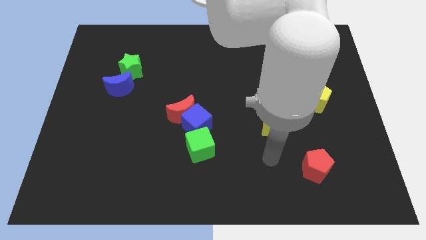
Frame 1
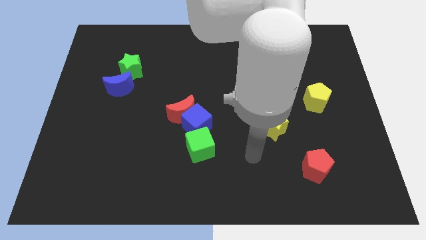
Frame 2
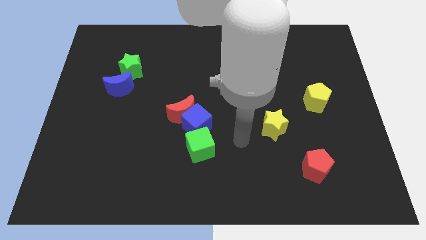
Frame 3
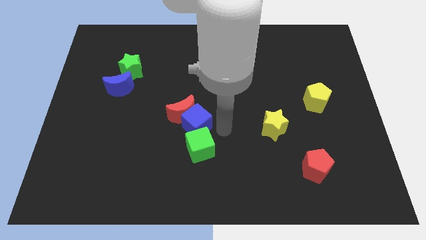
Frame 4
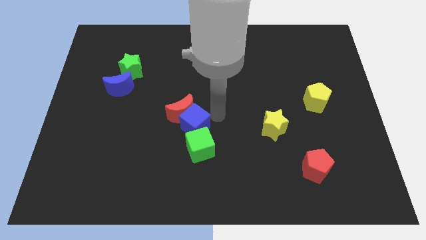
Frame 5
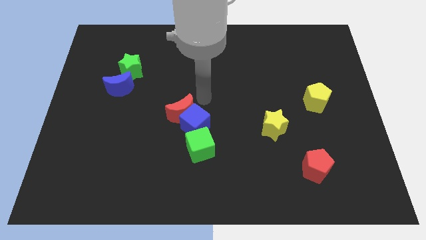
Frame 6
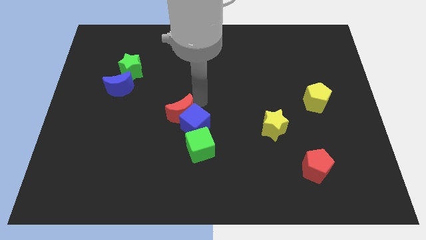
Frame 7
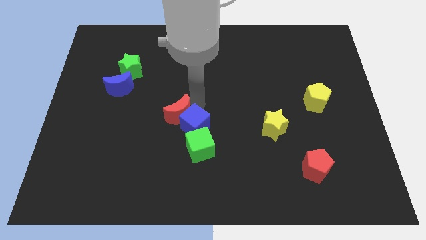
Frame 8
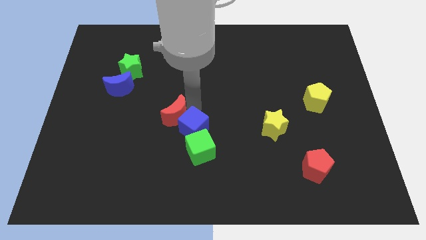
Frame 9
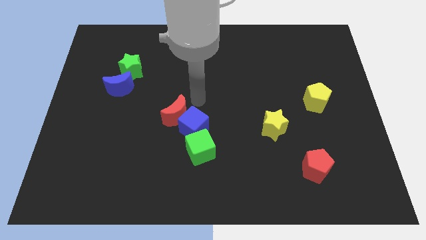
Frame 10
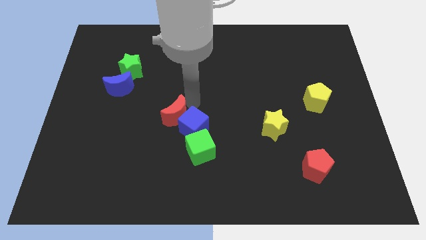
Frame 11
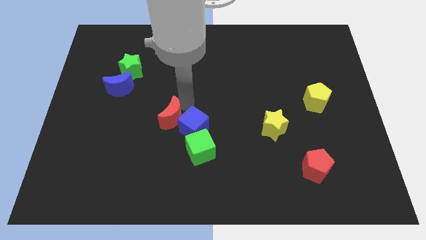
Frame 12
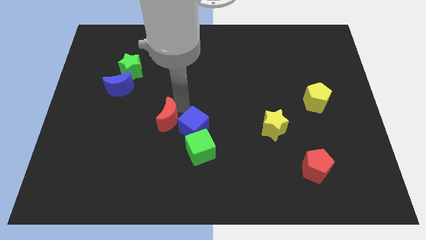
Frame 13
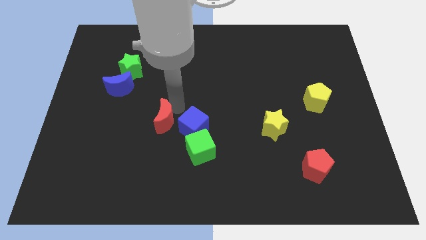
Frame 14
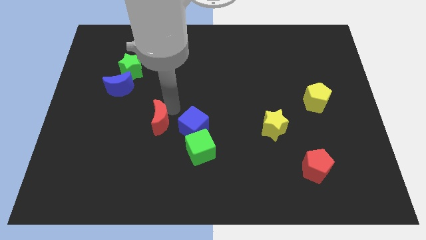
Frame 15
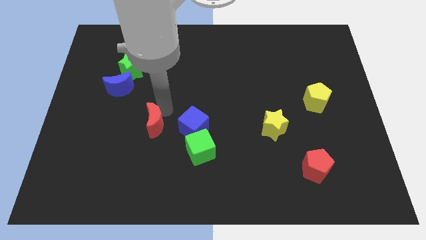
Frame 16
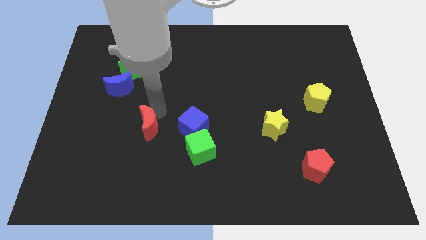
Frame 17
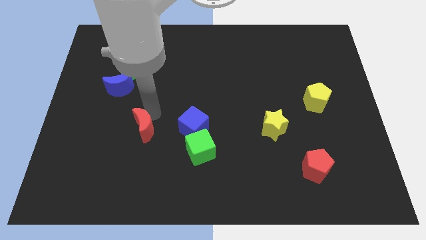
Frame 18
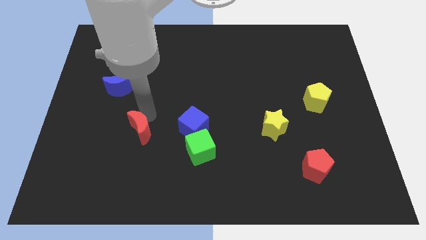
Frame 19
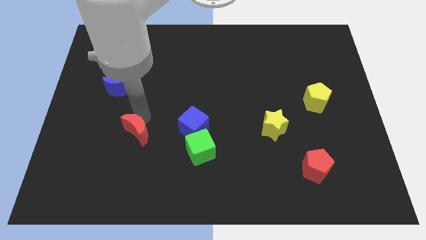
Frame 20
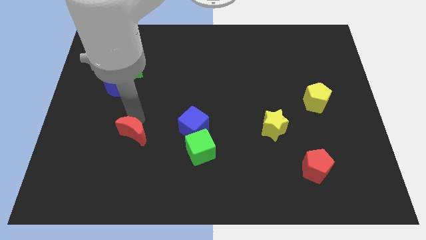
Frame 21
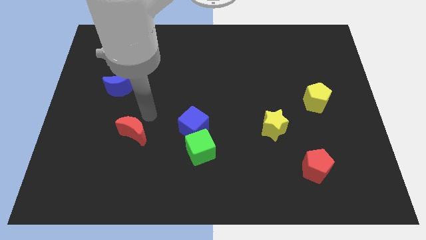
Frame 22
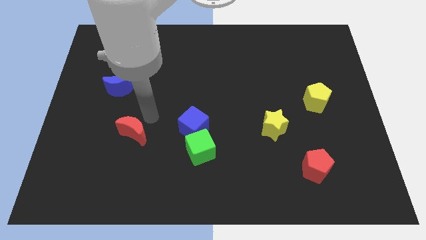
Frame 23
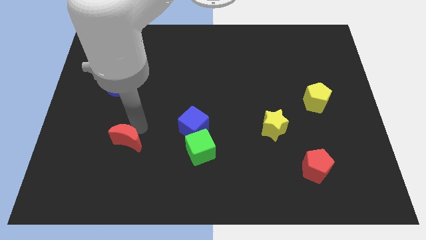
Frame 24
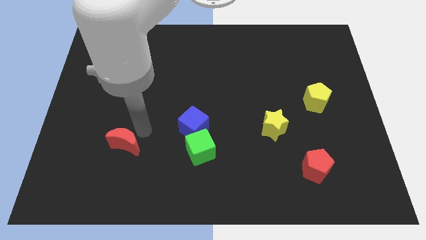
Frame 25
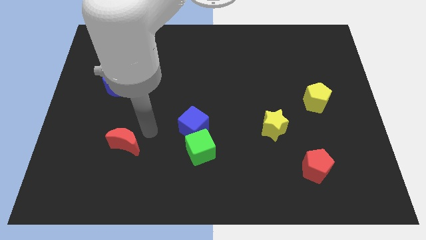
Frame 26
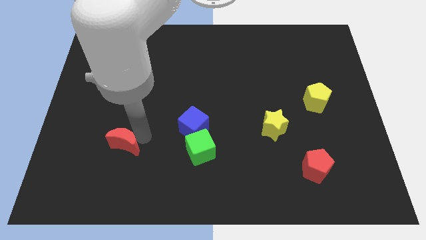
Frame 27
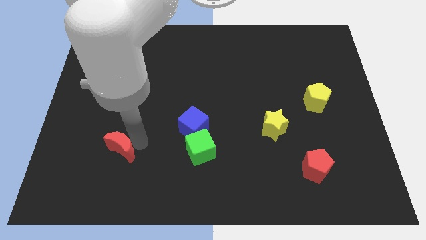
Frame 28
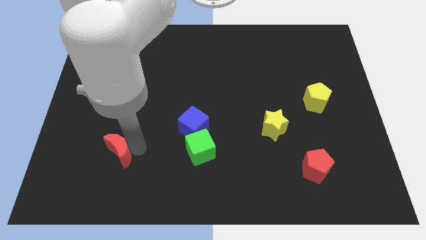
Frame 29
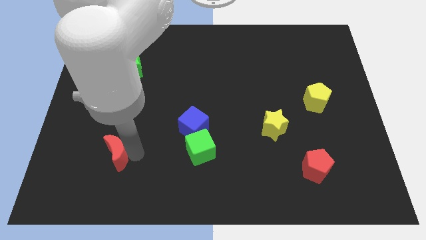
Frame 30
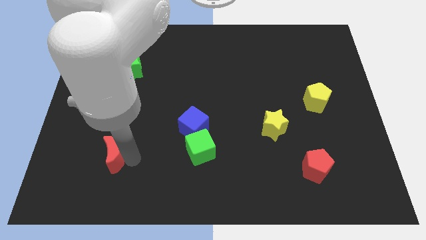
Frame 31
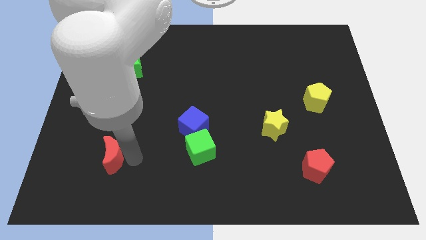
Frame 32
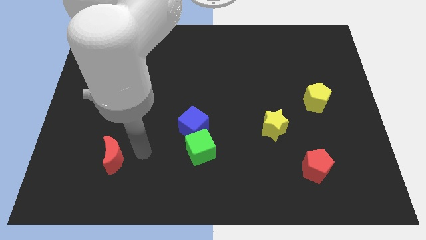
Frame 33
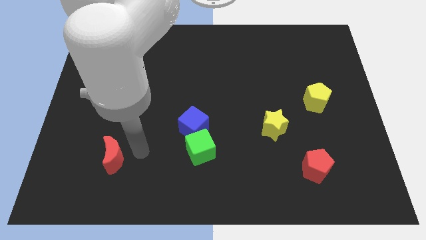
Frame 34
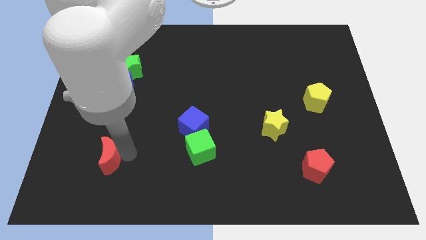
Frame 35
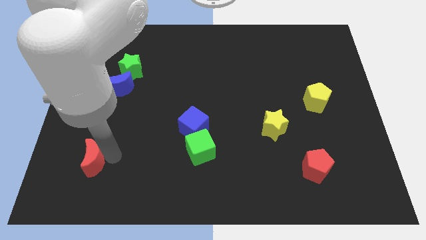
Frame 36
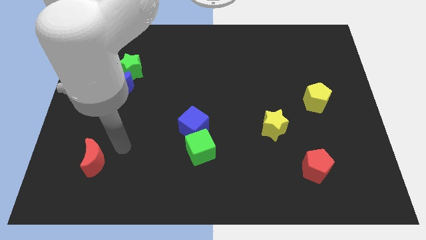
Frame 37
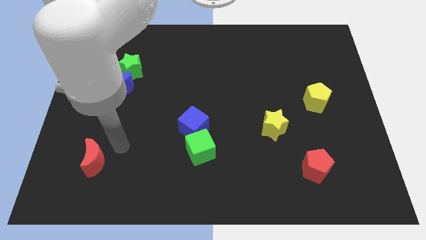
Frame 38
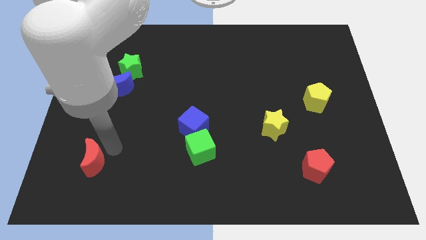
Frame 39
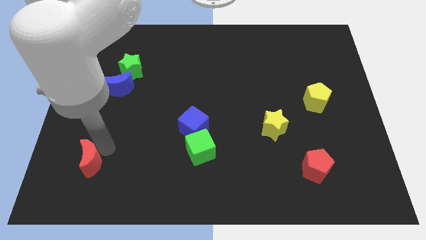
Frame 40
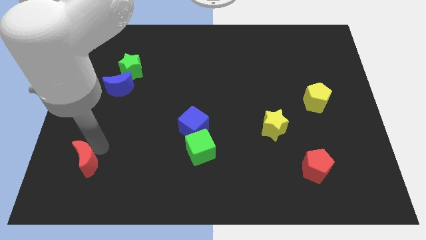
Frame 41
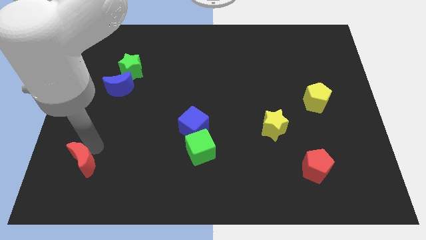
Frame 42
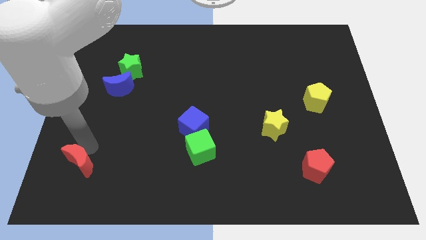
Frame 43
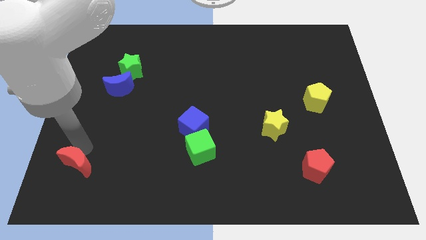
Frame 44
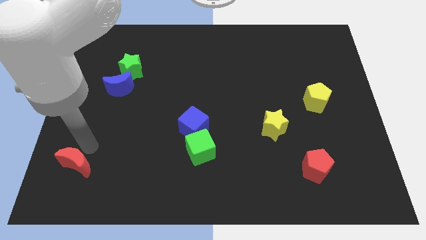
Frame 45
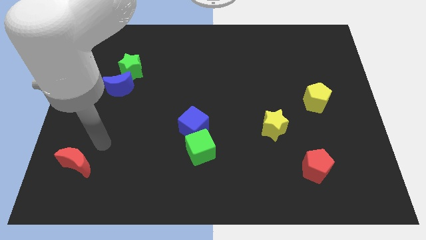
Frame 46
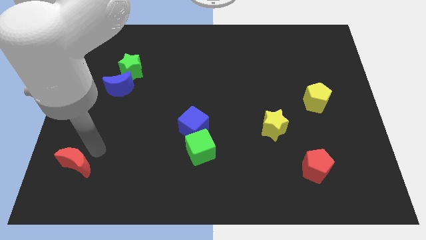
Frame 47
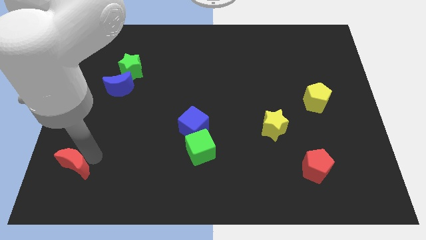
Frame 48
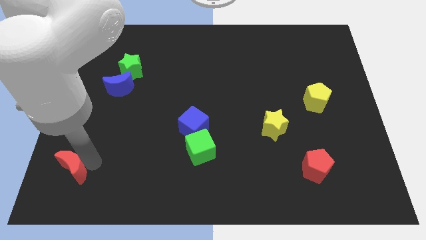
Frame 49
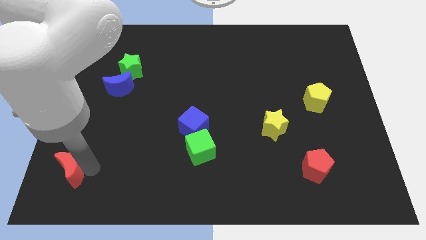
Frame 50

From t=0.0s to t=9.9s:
push the red moon to the bottom left

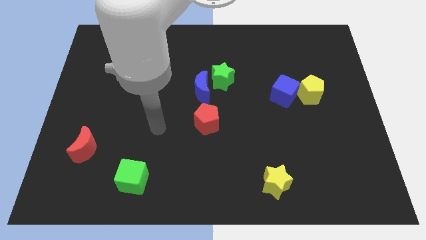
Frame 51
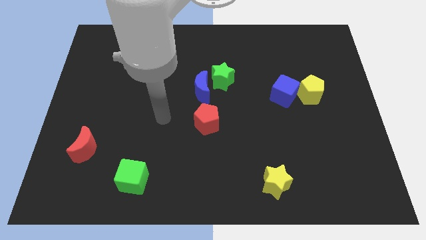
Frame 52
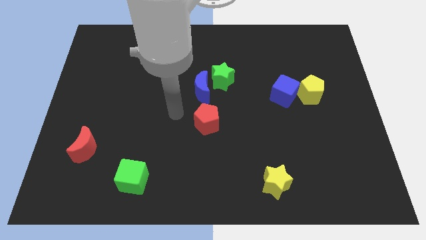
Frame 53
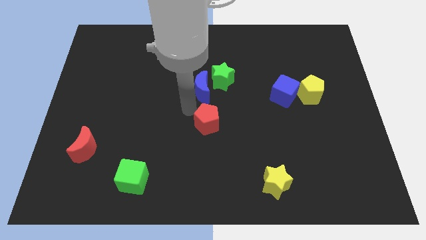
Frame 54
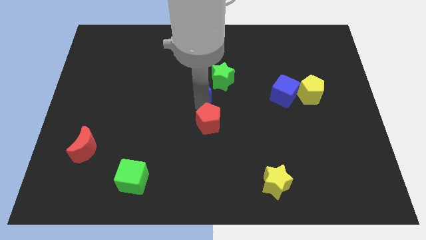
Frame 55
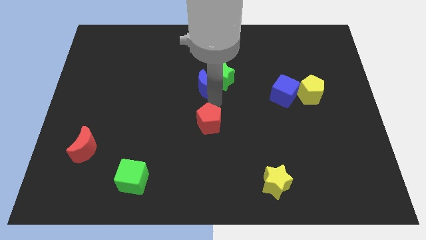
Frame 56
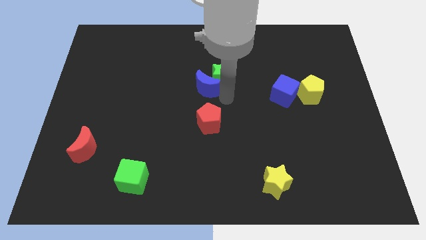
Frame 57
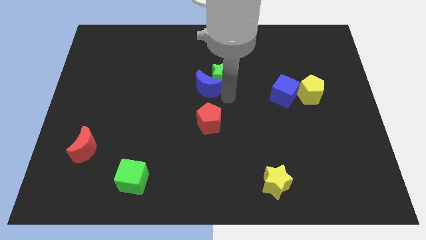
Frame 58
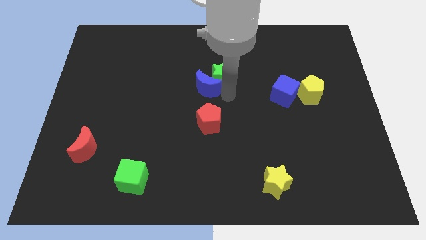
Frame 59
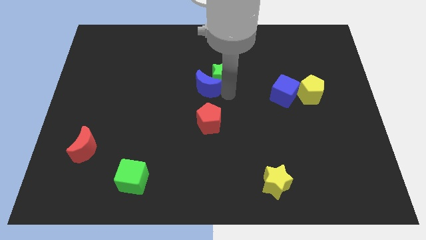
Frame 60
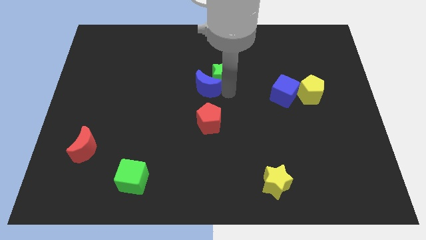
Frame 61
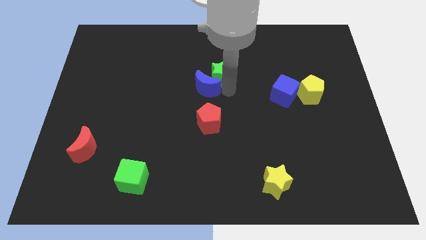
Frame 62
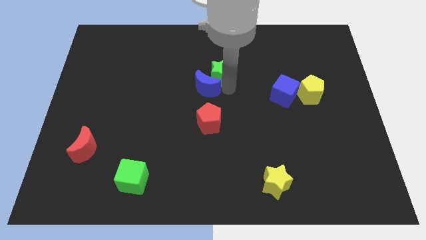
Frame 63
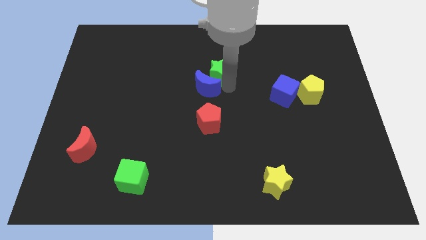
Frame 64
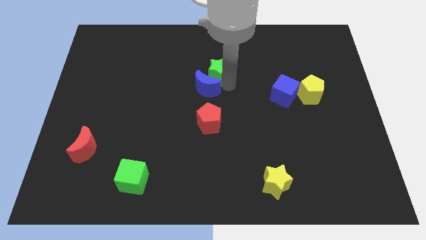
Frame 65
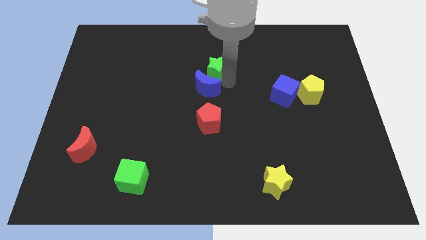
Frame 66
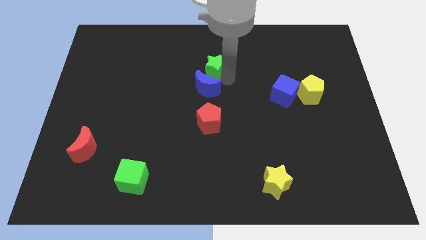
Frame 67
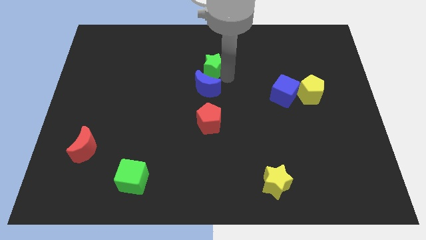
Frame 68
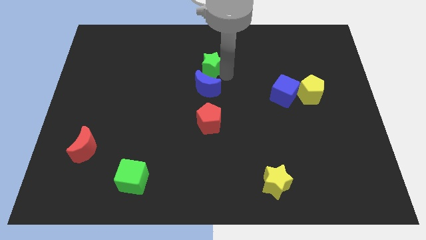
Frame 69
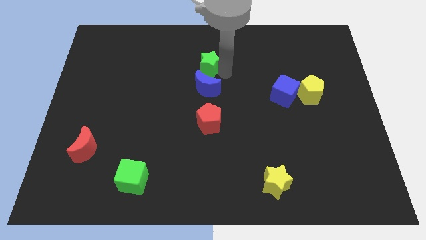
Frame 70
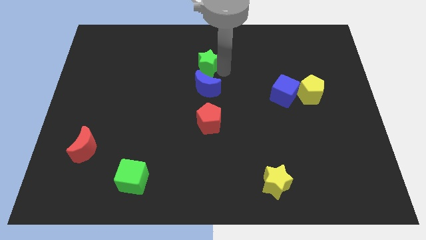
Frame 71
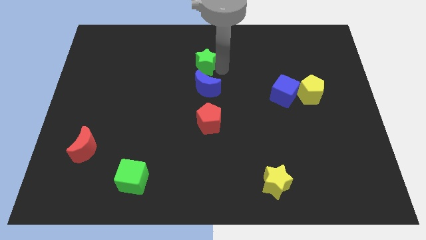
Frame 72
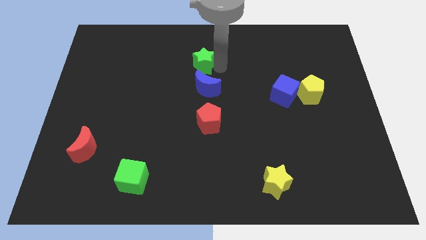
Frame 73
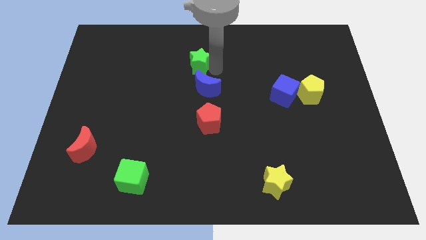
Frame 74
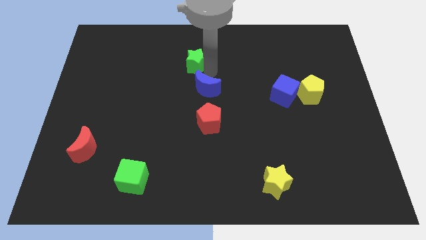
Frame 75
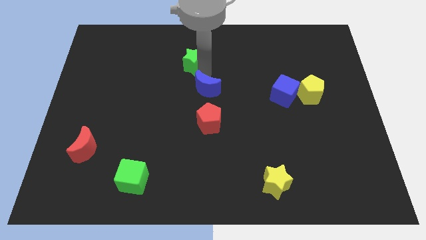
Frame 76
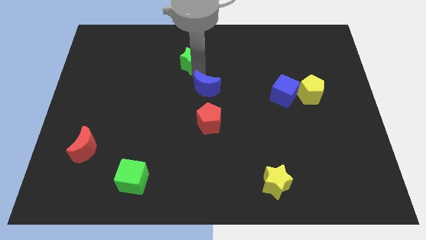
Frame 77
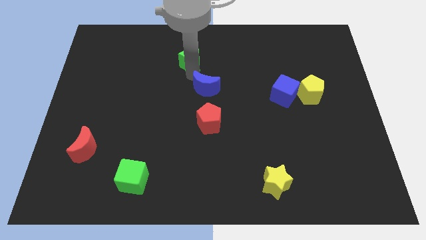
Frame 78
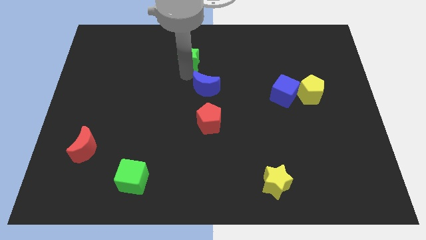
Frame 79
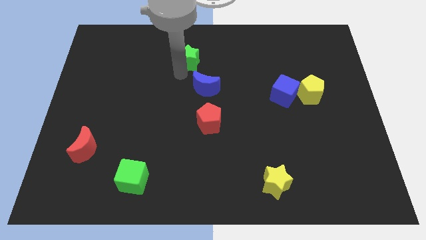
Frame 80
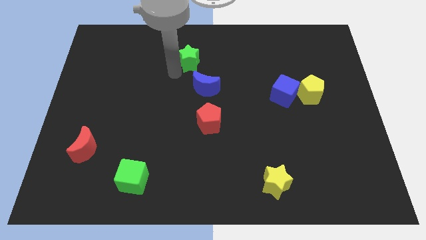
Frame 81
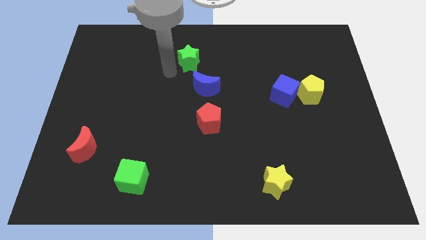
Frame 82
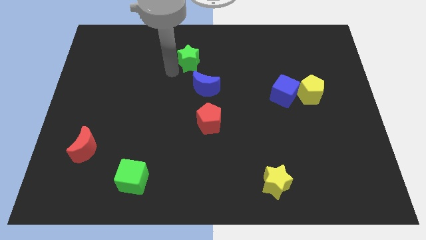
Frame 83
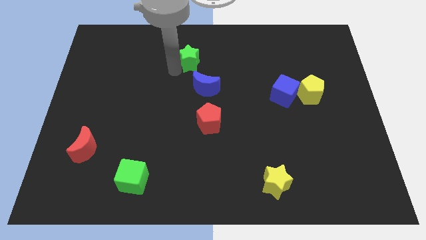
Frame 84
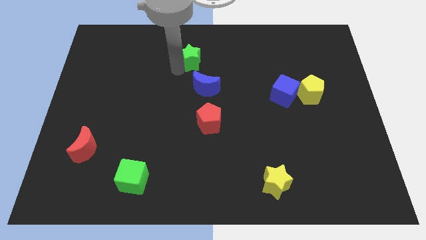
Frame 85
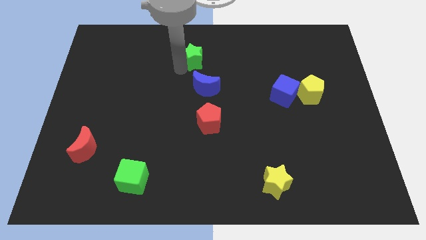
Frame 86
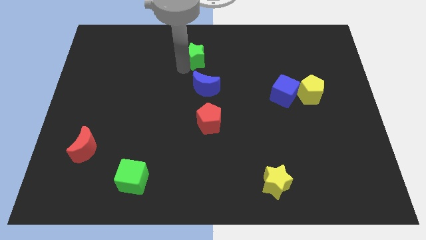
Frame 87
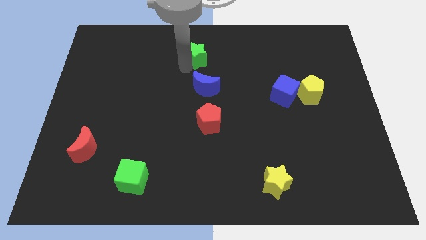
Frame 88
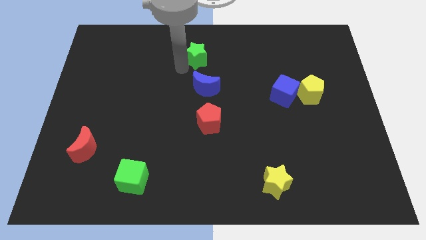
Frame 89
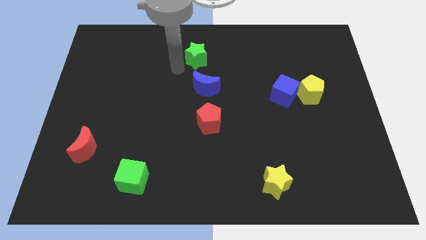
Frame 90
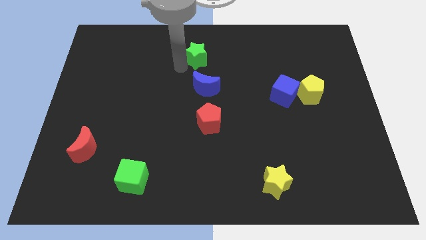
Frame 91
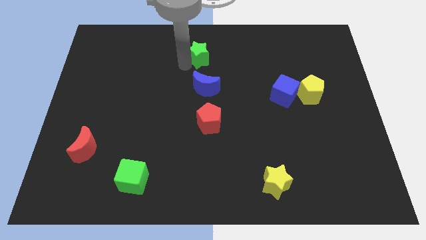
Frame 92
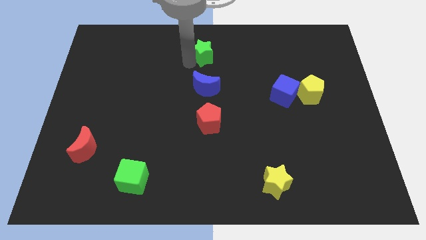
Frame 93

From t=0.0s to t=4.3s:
slide the green star to the towards your base
